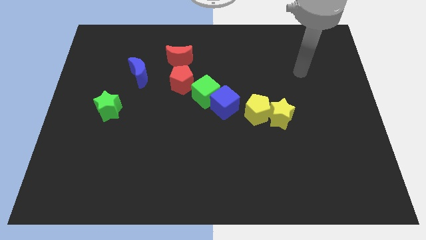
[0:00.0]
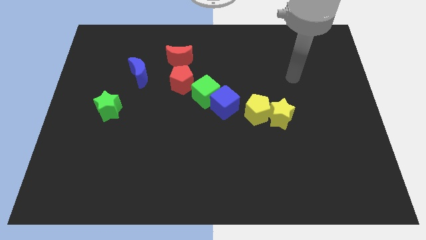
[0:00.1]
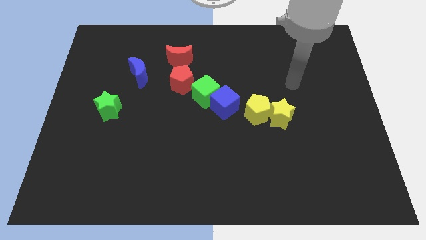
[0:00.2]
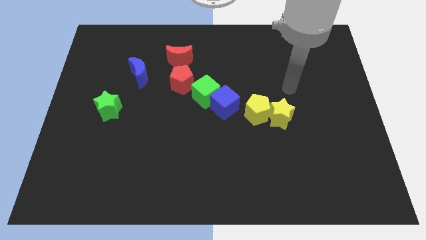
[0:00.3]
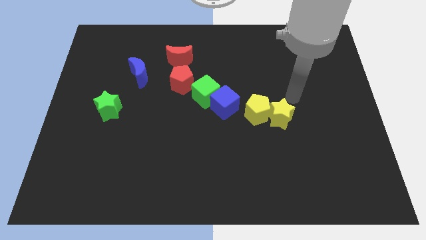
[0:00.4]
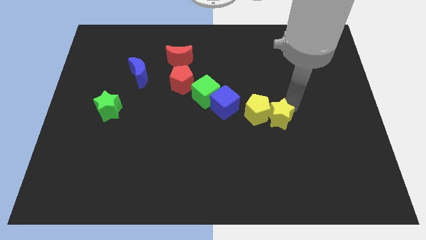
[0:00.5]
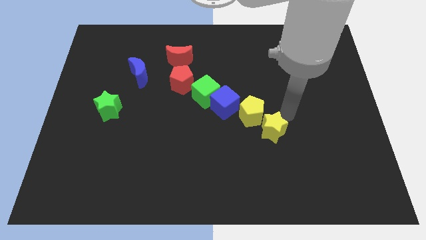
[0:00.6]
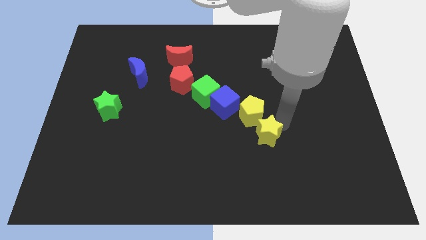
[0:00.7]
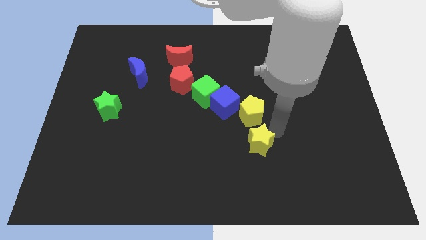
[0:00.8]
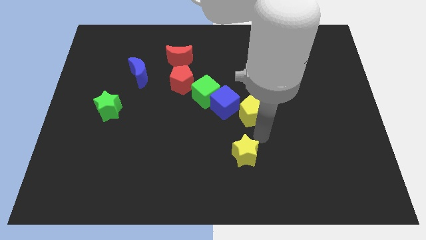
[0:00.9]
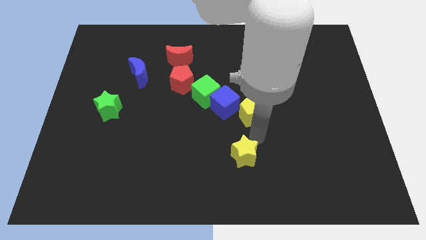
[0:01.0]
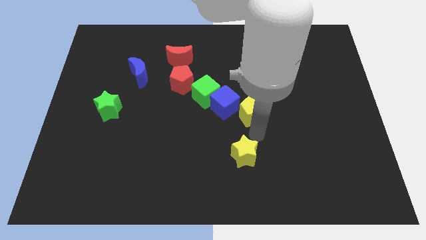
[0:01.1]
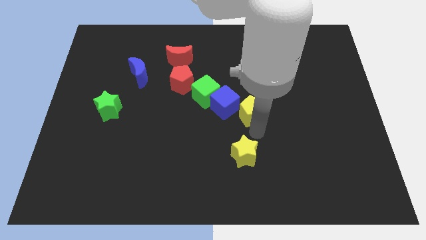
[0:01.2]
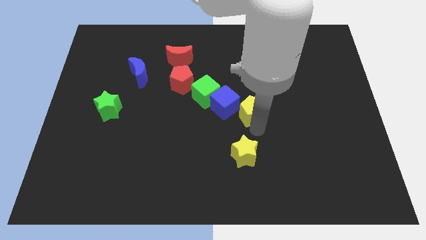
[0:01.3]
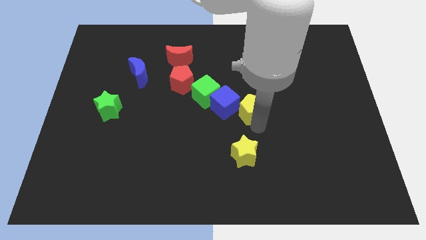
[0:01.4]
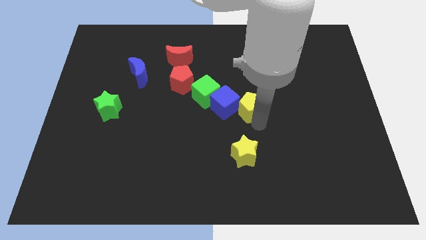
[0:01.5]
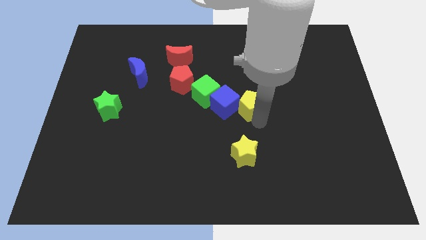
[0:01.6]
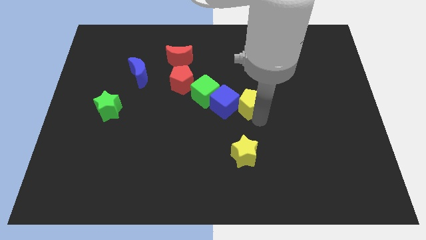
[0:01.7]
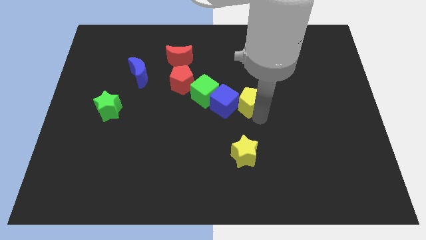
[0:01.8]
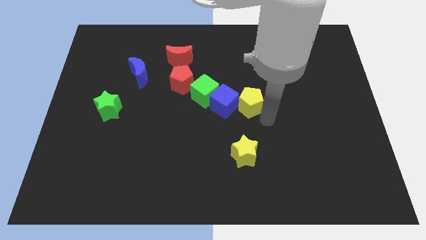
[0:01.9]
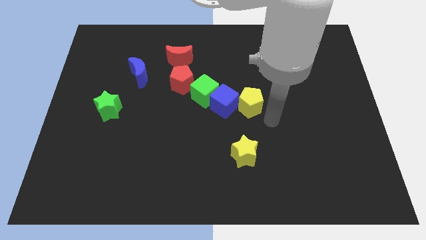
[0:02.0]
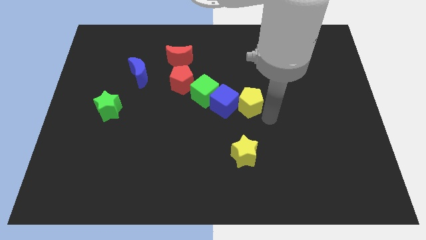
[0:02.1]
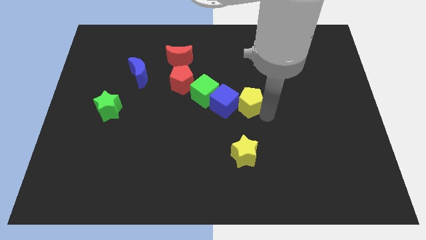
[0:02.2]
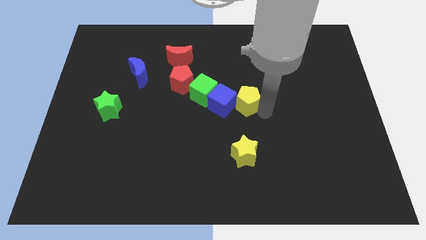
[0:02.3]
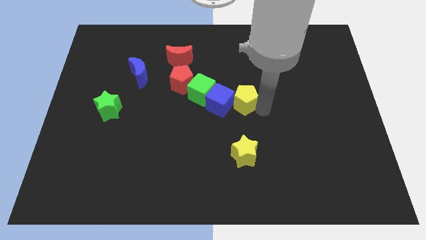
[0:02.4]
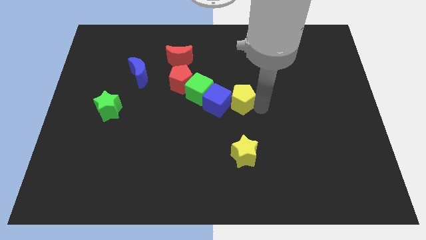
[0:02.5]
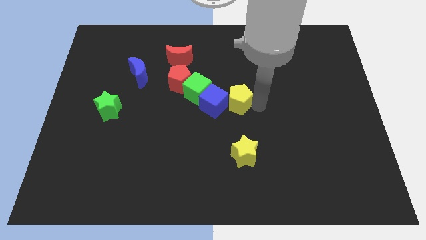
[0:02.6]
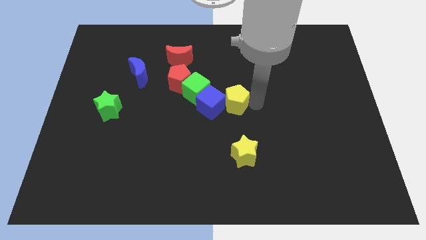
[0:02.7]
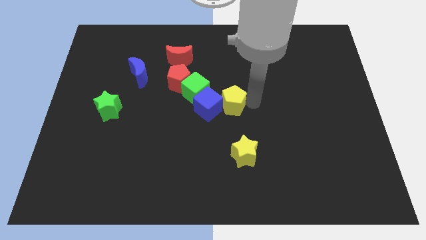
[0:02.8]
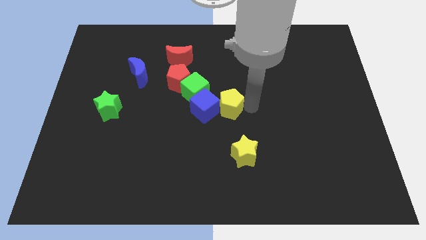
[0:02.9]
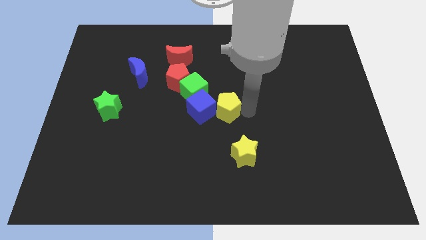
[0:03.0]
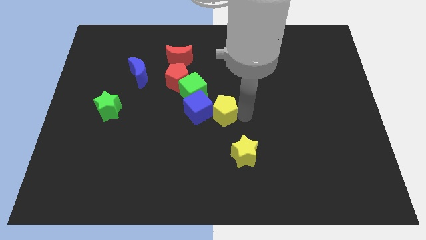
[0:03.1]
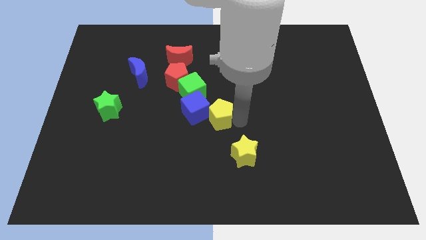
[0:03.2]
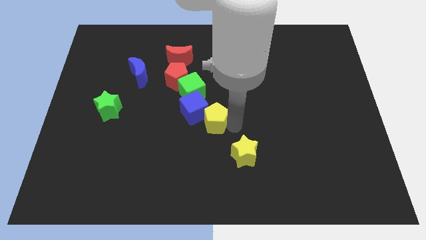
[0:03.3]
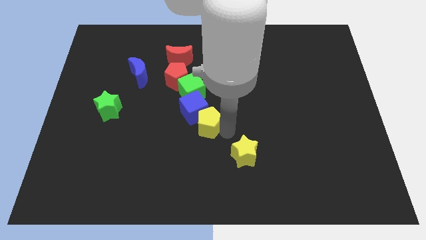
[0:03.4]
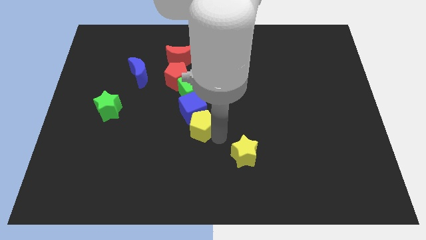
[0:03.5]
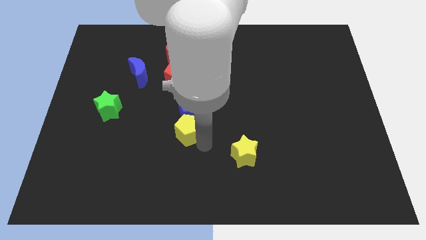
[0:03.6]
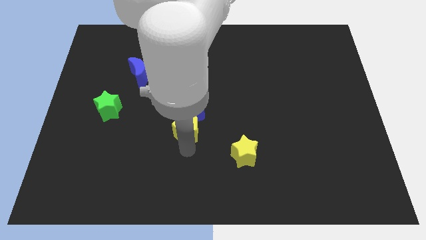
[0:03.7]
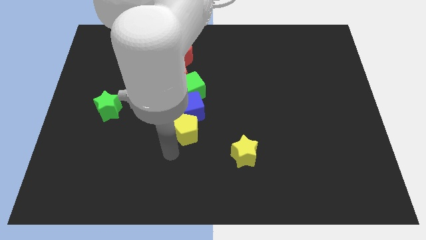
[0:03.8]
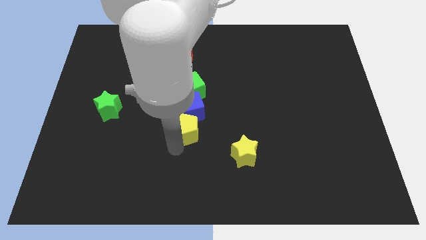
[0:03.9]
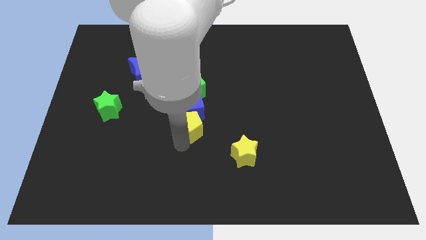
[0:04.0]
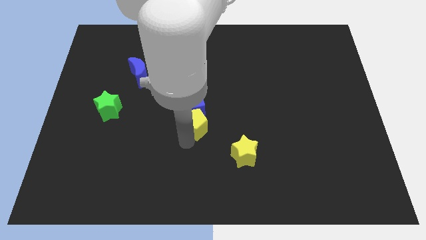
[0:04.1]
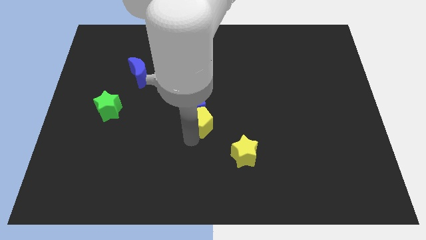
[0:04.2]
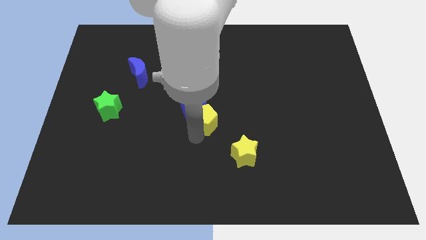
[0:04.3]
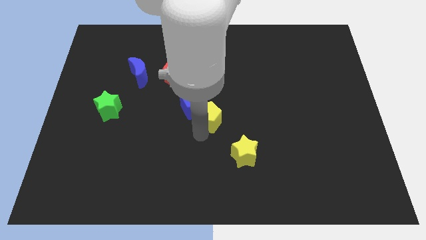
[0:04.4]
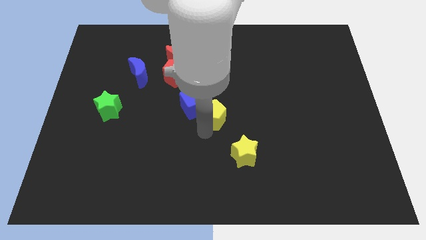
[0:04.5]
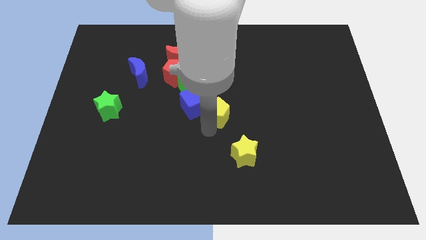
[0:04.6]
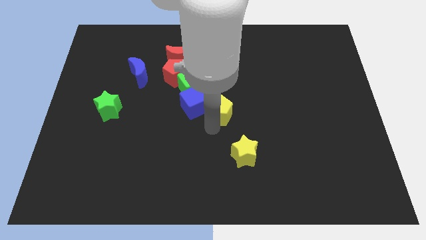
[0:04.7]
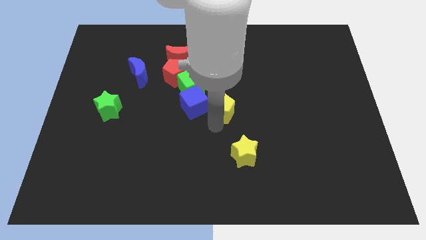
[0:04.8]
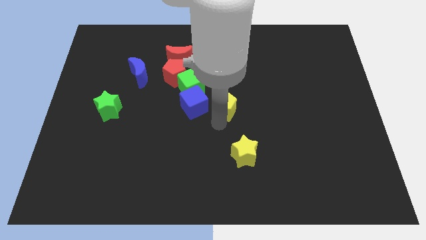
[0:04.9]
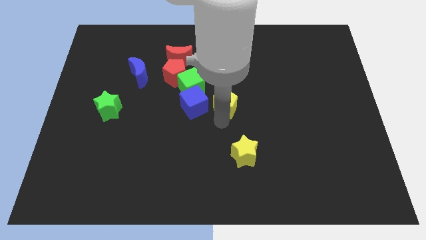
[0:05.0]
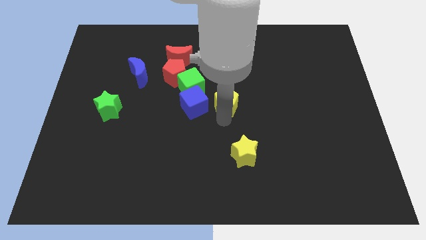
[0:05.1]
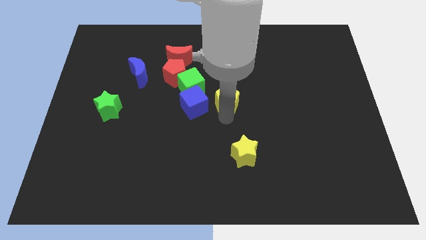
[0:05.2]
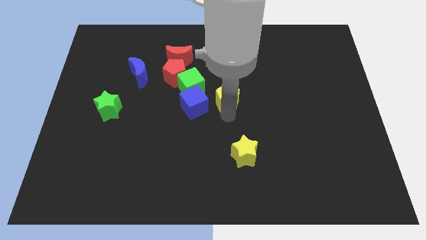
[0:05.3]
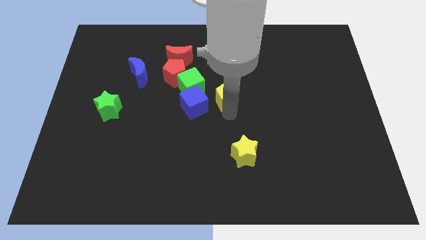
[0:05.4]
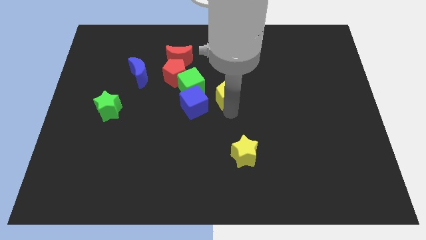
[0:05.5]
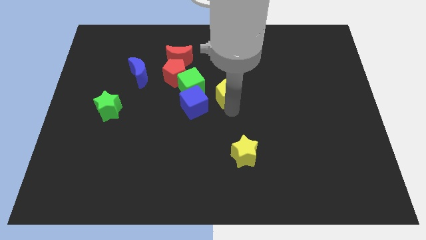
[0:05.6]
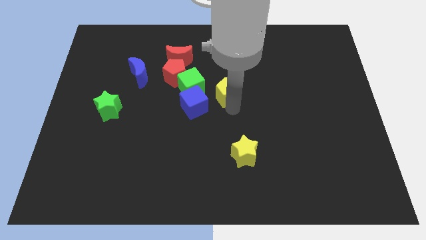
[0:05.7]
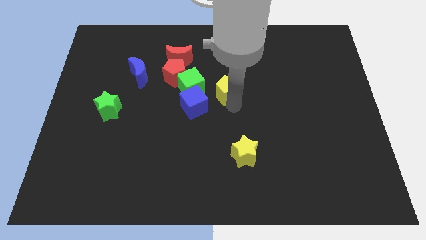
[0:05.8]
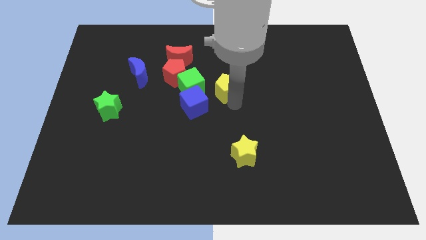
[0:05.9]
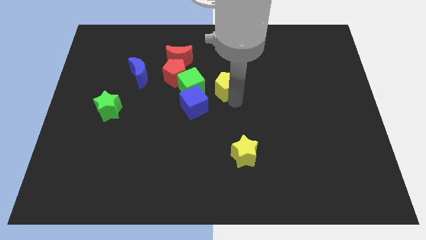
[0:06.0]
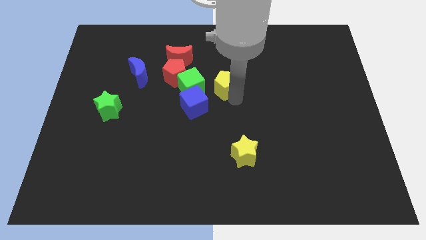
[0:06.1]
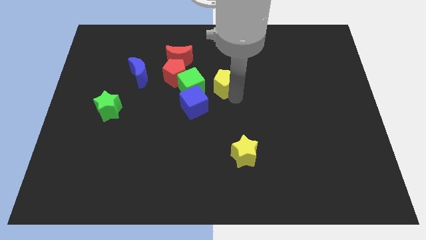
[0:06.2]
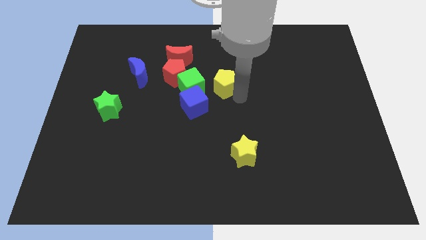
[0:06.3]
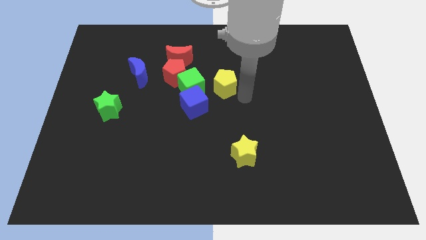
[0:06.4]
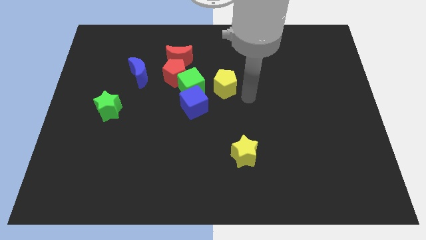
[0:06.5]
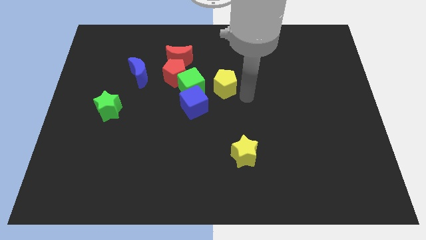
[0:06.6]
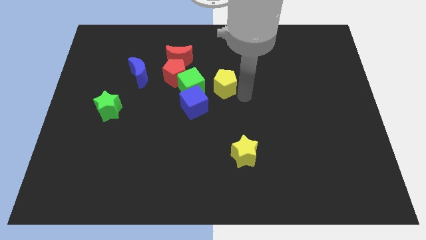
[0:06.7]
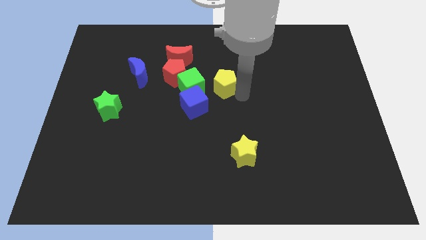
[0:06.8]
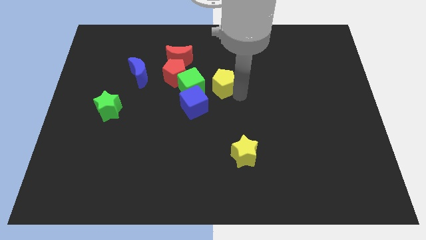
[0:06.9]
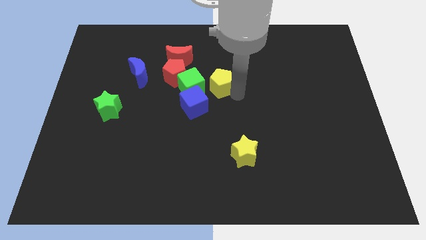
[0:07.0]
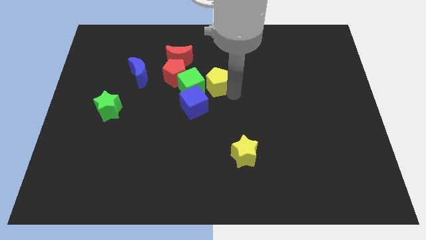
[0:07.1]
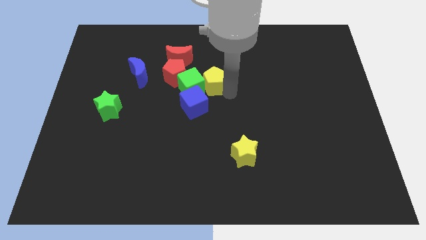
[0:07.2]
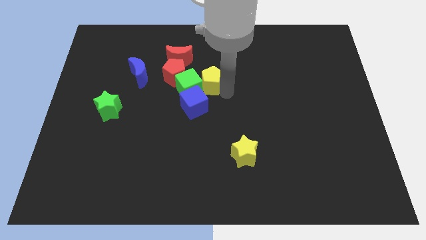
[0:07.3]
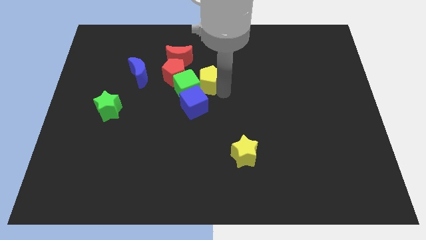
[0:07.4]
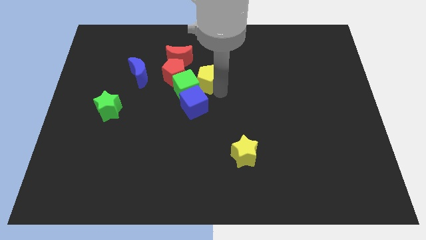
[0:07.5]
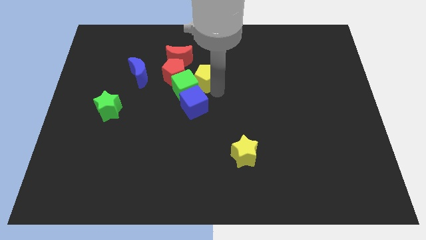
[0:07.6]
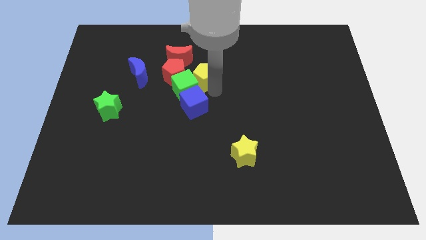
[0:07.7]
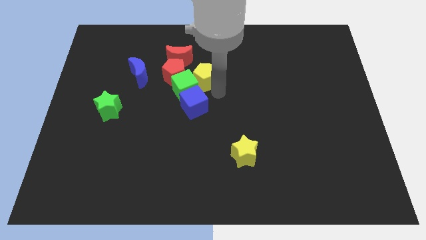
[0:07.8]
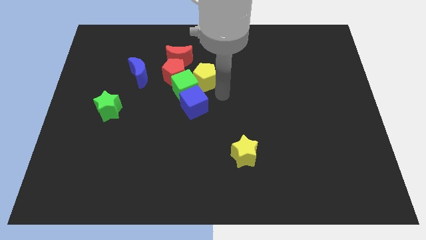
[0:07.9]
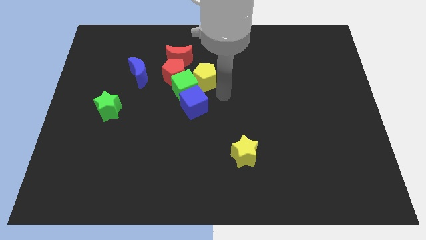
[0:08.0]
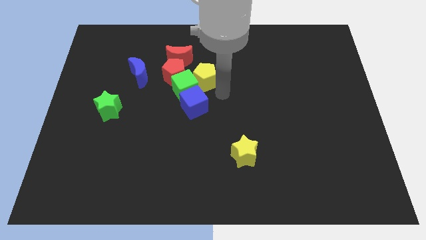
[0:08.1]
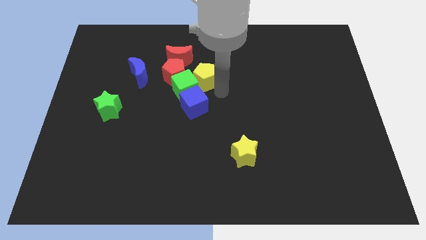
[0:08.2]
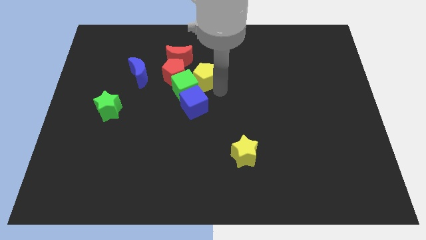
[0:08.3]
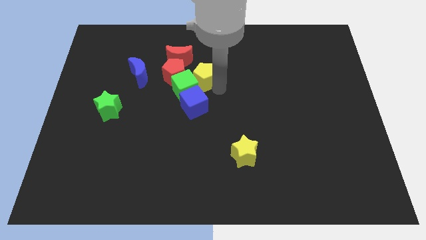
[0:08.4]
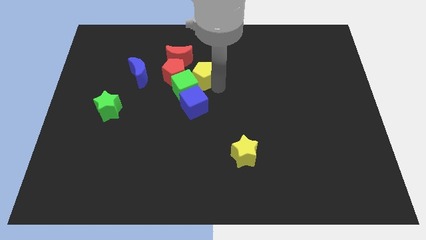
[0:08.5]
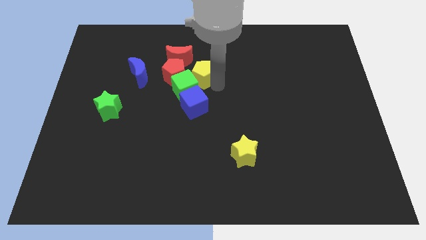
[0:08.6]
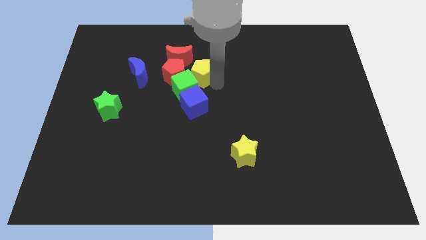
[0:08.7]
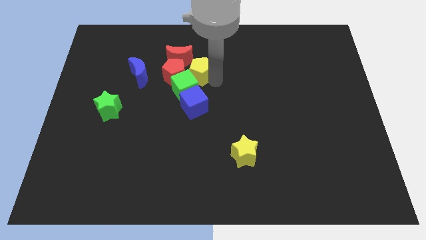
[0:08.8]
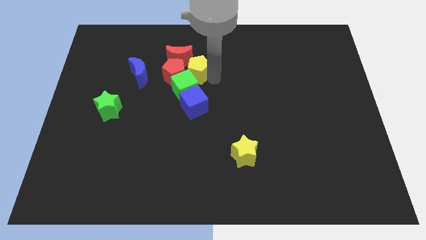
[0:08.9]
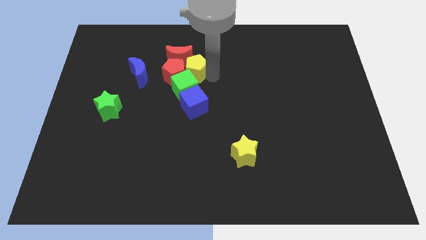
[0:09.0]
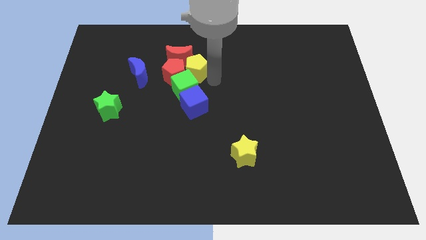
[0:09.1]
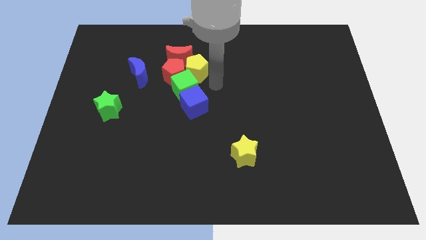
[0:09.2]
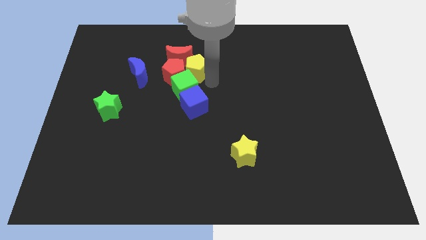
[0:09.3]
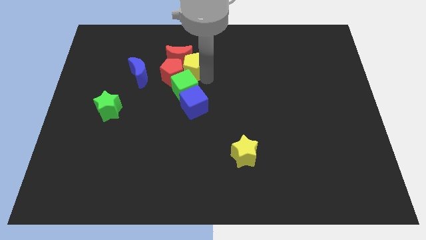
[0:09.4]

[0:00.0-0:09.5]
put the yellow pentagon to the red moon
